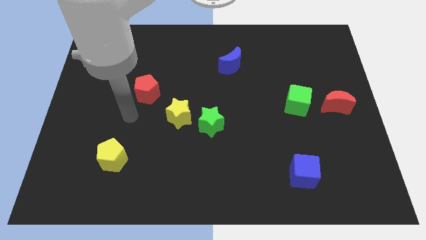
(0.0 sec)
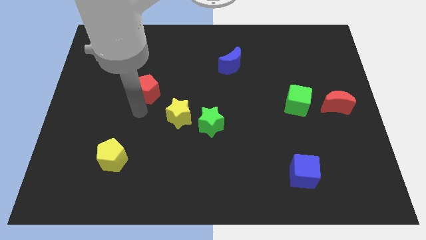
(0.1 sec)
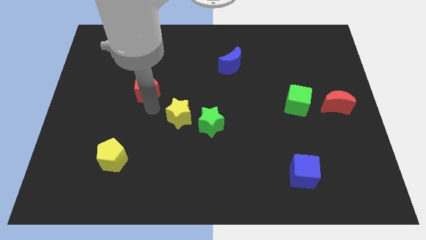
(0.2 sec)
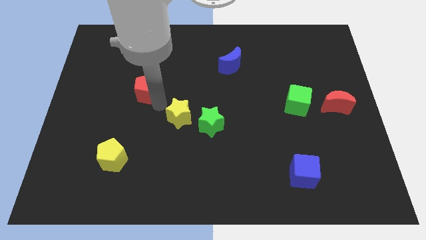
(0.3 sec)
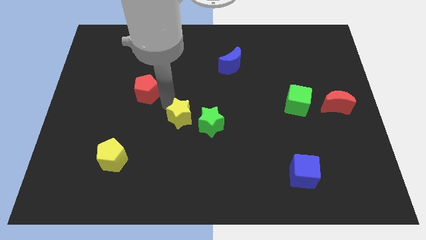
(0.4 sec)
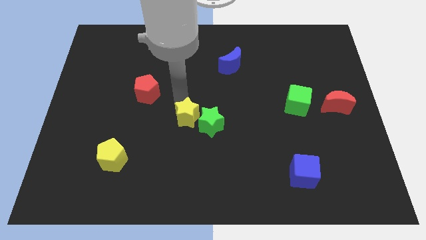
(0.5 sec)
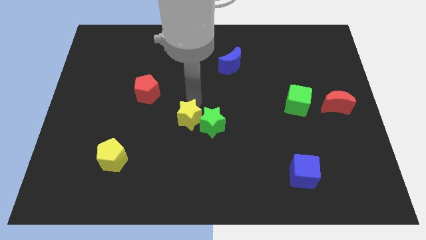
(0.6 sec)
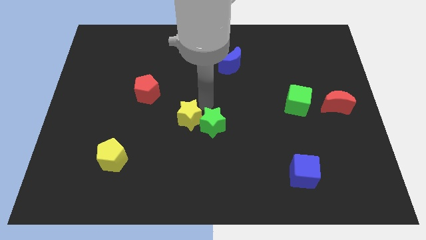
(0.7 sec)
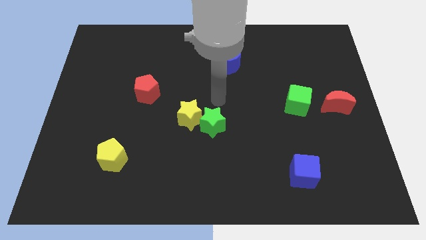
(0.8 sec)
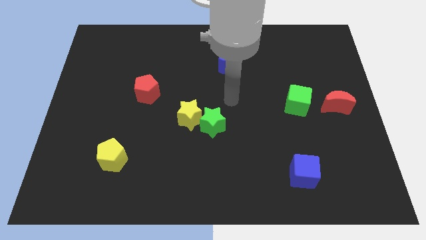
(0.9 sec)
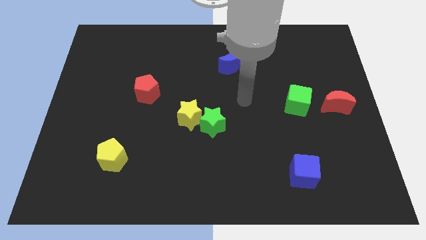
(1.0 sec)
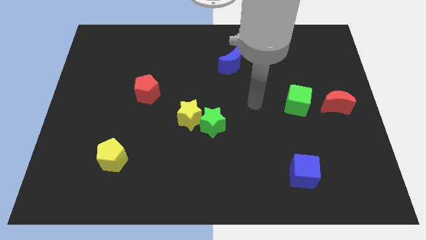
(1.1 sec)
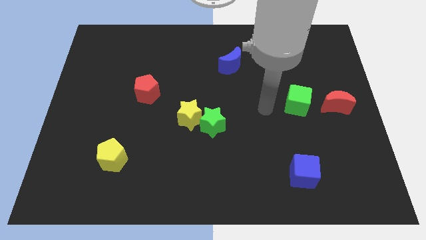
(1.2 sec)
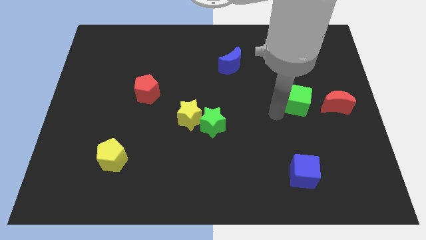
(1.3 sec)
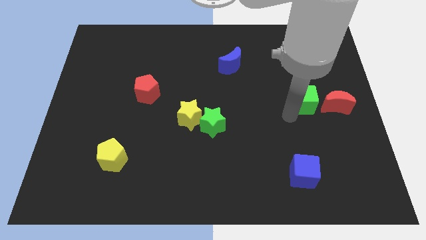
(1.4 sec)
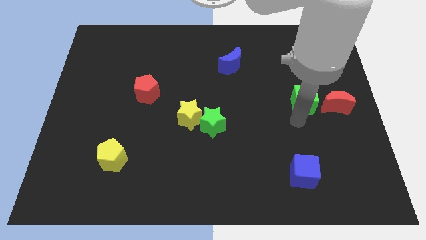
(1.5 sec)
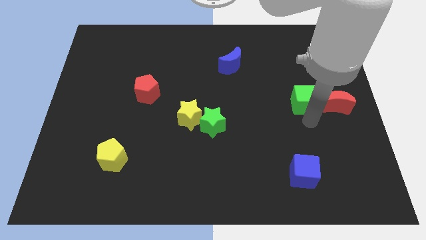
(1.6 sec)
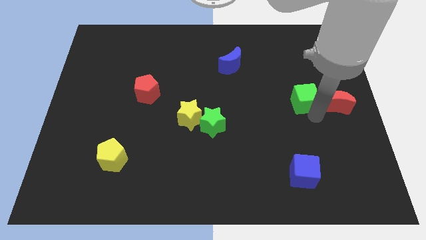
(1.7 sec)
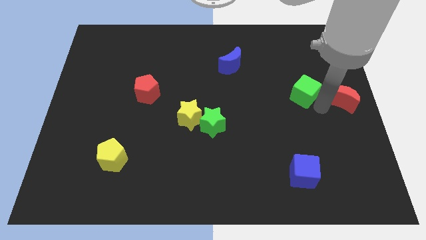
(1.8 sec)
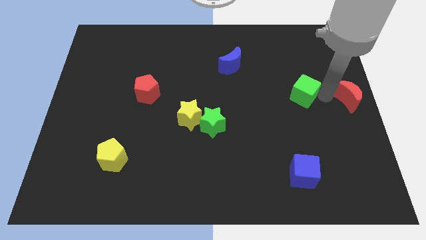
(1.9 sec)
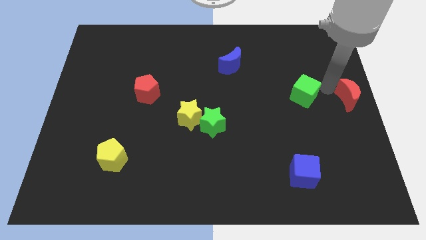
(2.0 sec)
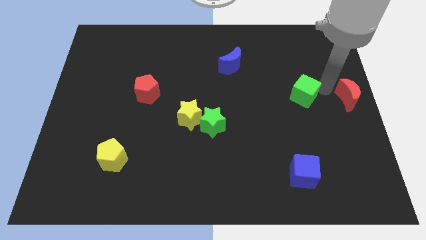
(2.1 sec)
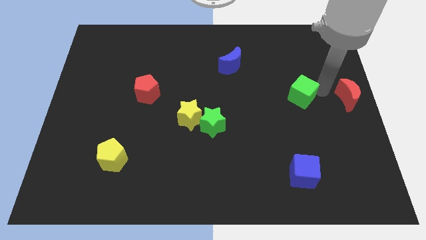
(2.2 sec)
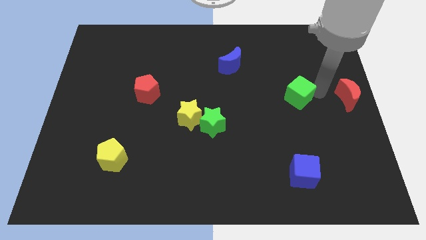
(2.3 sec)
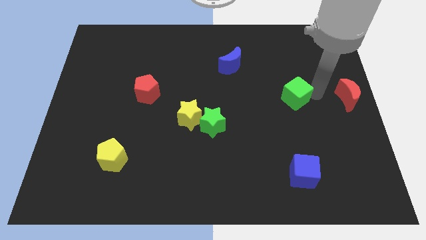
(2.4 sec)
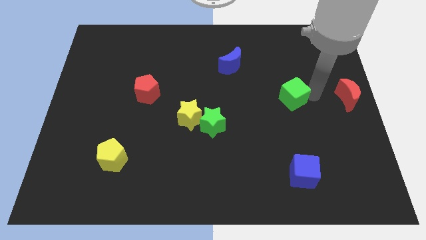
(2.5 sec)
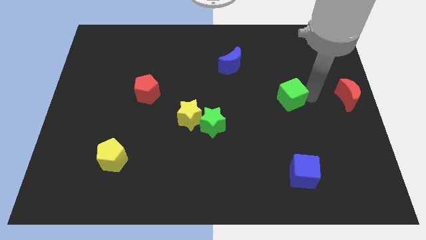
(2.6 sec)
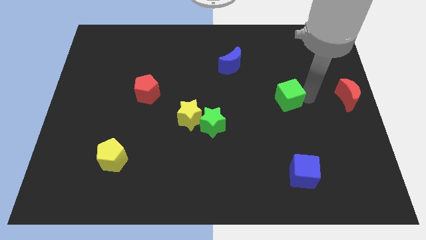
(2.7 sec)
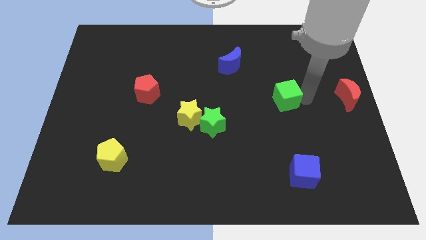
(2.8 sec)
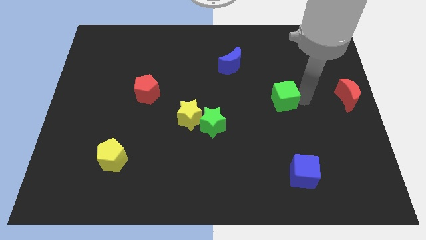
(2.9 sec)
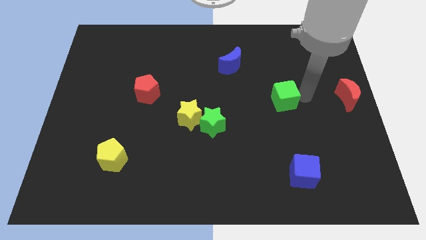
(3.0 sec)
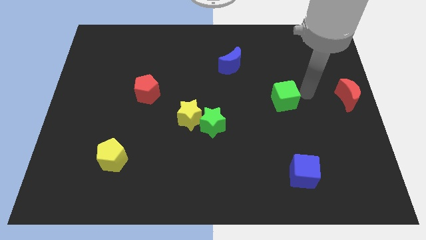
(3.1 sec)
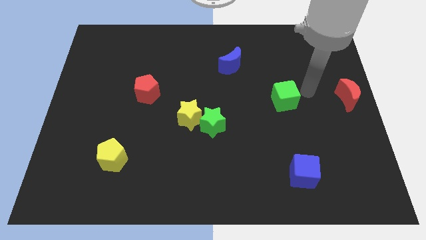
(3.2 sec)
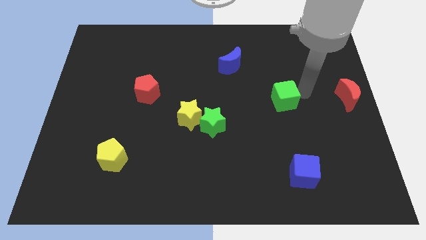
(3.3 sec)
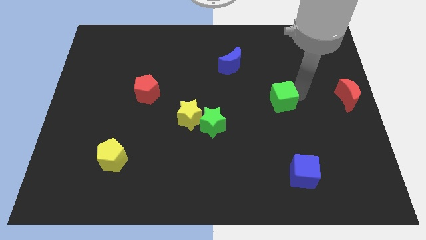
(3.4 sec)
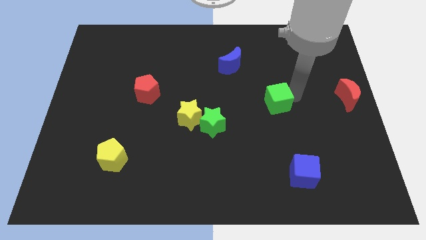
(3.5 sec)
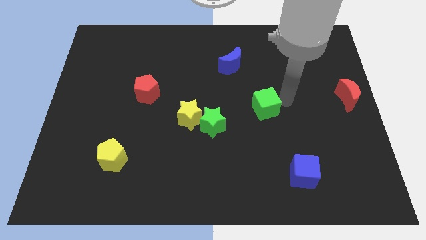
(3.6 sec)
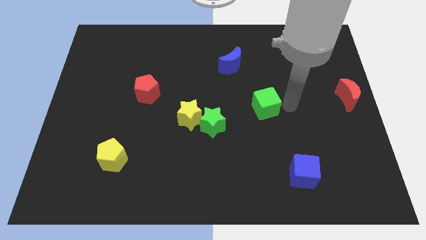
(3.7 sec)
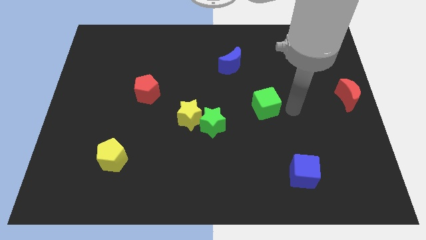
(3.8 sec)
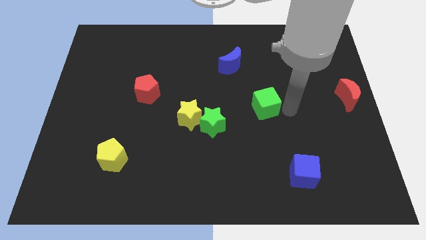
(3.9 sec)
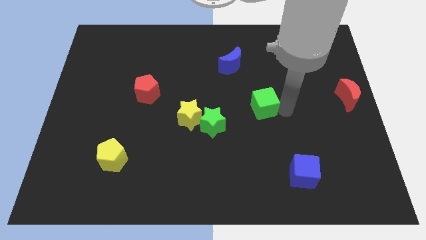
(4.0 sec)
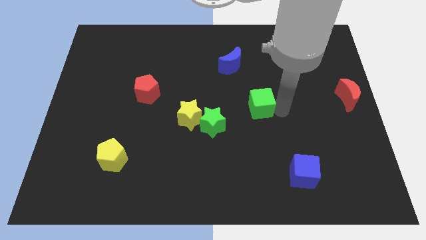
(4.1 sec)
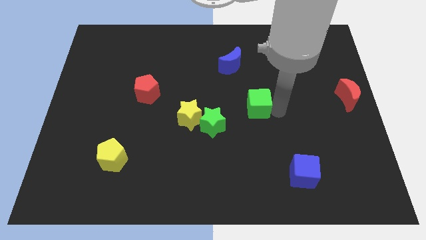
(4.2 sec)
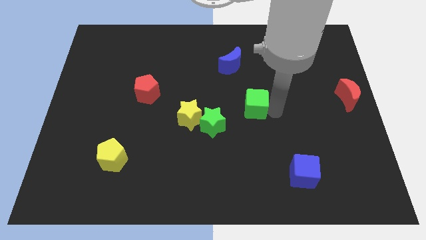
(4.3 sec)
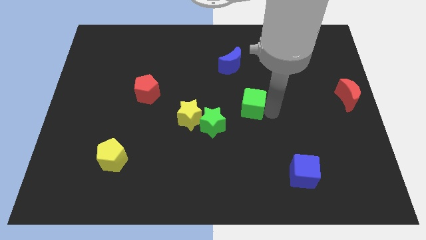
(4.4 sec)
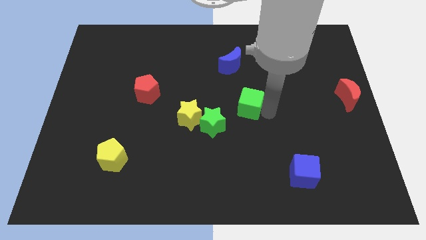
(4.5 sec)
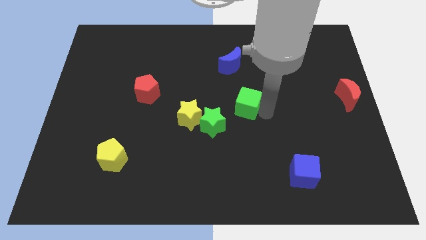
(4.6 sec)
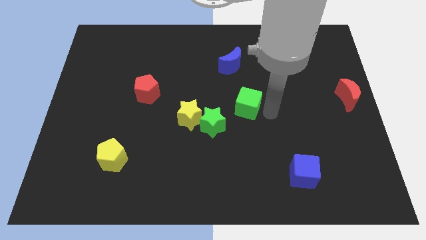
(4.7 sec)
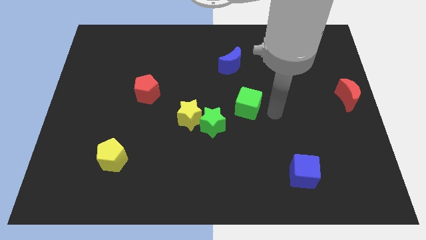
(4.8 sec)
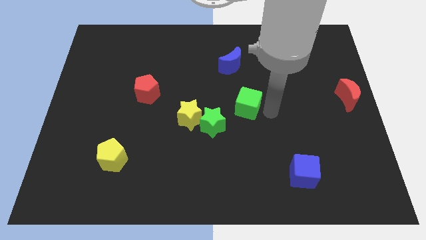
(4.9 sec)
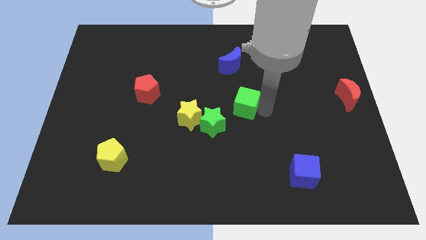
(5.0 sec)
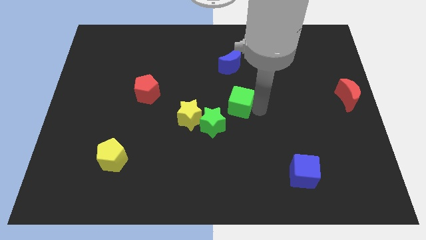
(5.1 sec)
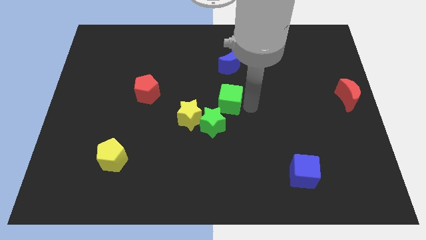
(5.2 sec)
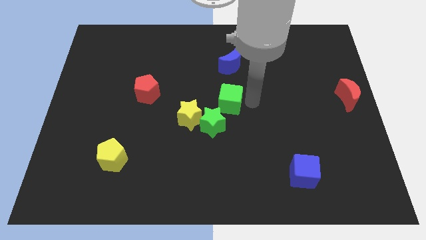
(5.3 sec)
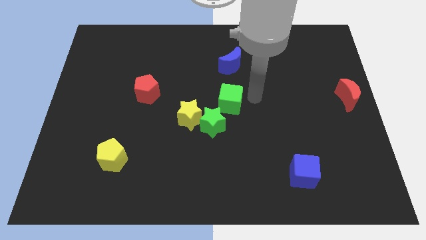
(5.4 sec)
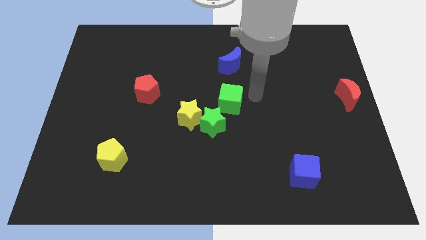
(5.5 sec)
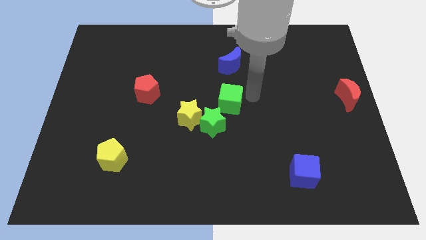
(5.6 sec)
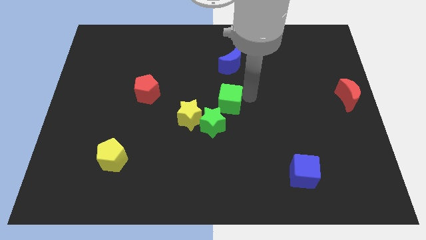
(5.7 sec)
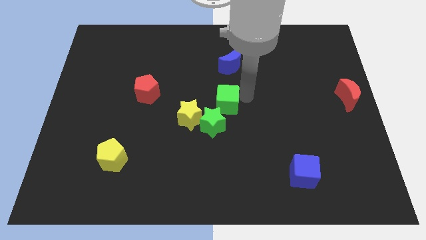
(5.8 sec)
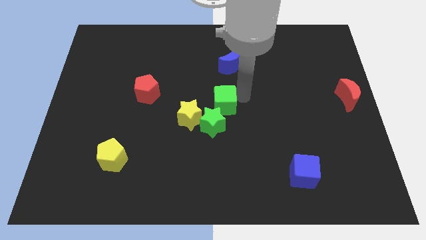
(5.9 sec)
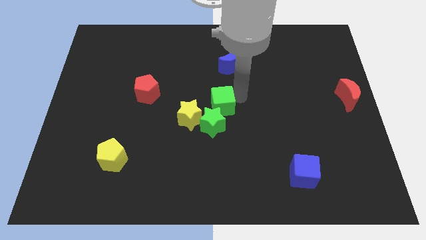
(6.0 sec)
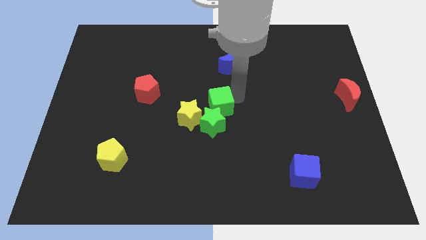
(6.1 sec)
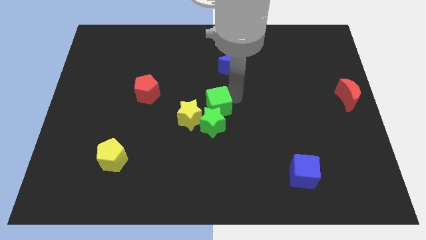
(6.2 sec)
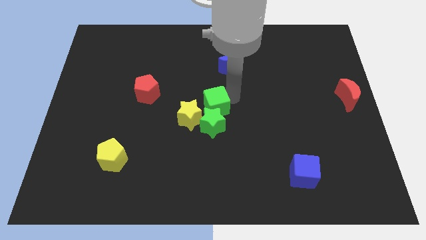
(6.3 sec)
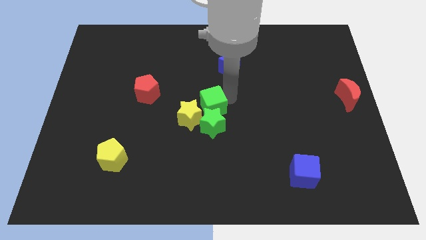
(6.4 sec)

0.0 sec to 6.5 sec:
move the green cube to the yellow star
